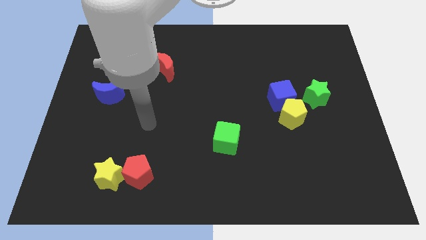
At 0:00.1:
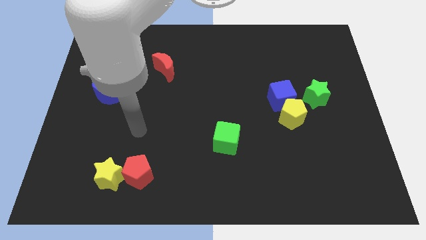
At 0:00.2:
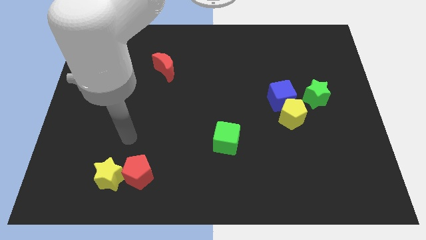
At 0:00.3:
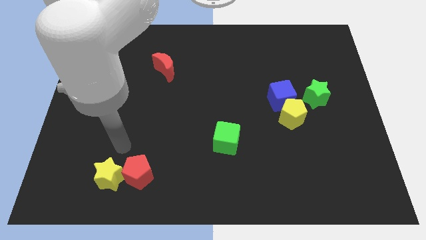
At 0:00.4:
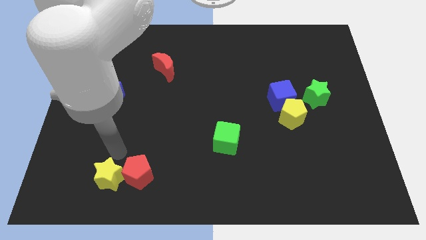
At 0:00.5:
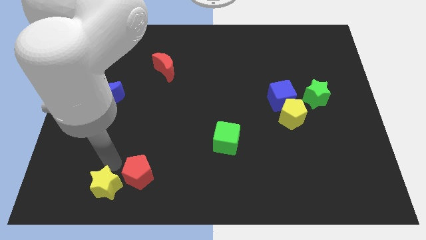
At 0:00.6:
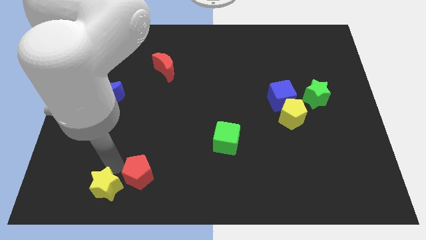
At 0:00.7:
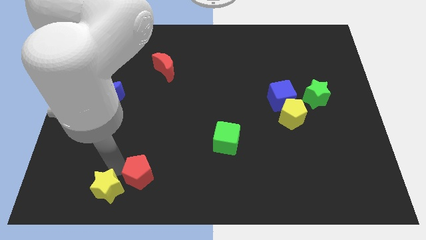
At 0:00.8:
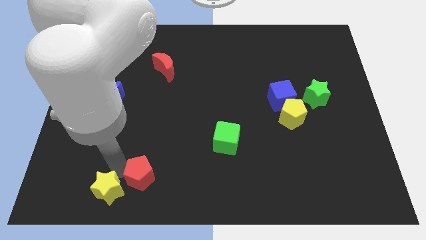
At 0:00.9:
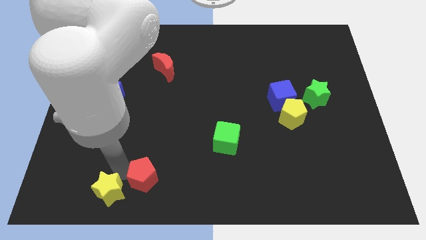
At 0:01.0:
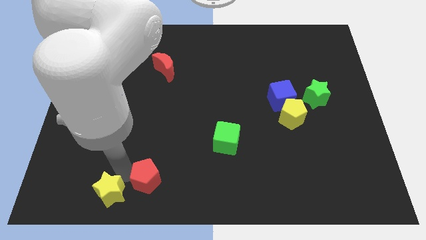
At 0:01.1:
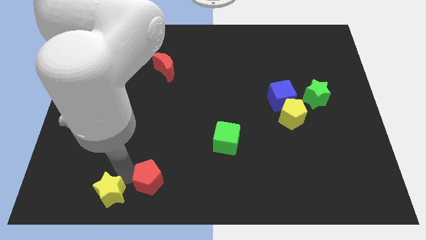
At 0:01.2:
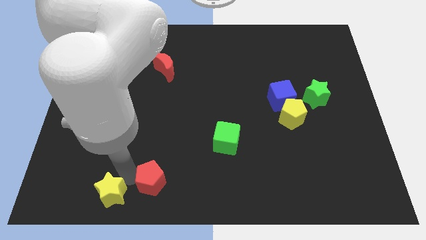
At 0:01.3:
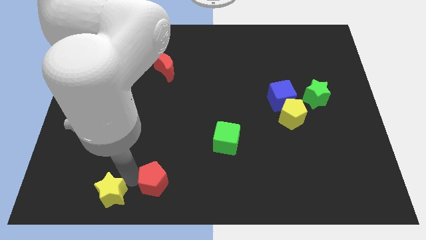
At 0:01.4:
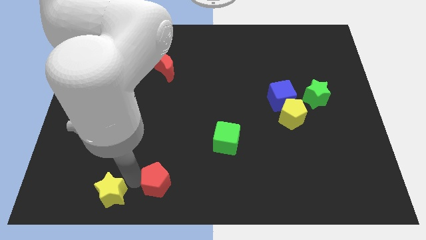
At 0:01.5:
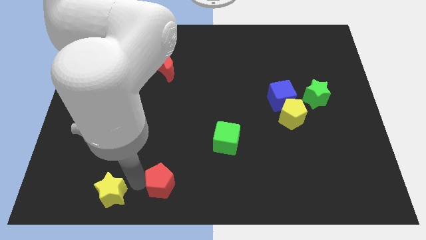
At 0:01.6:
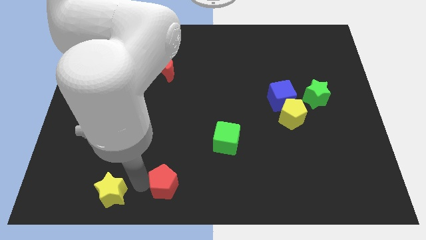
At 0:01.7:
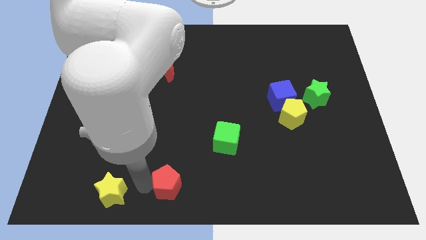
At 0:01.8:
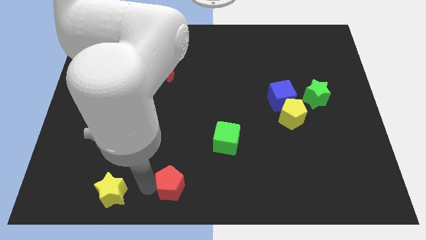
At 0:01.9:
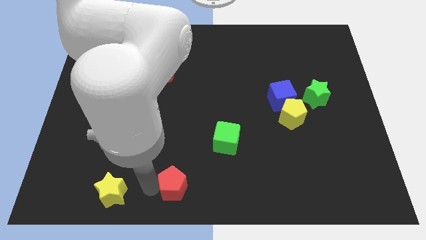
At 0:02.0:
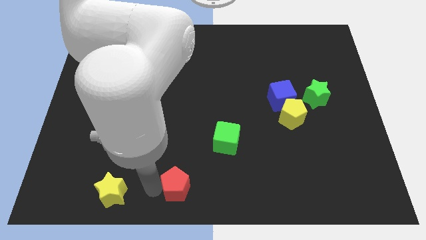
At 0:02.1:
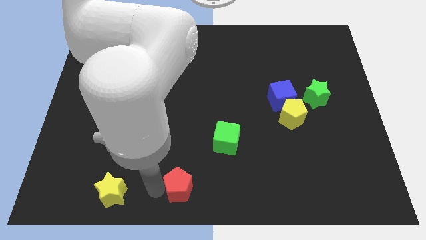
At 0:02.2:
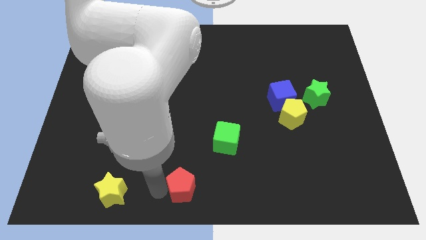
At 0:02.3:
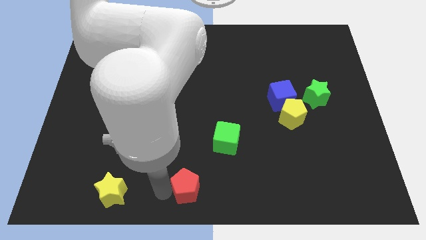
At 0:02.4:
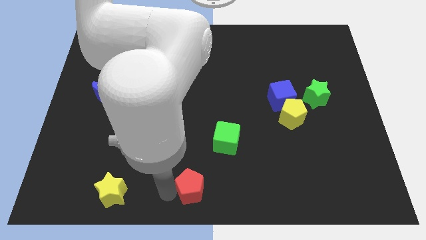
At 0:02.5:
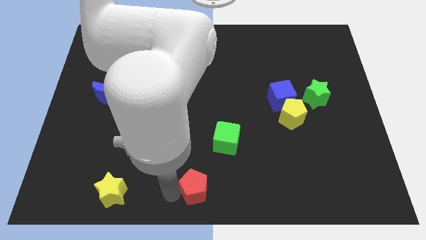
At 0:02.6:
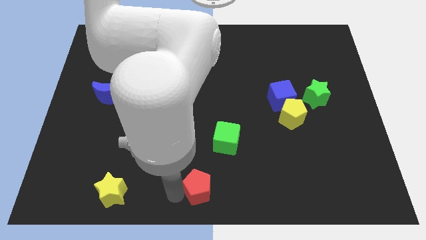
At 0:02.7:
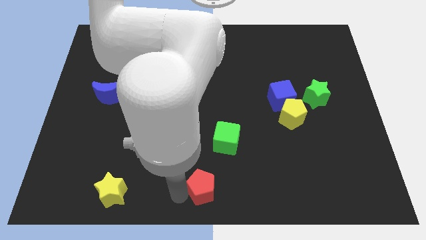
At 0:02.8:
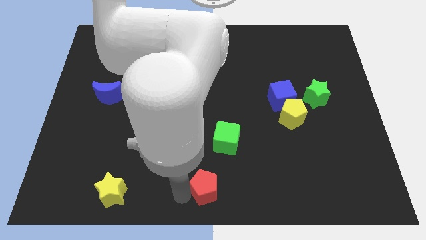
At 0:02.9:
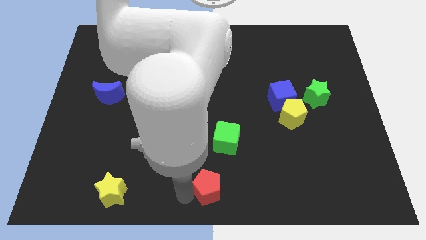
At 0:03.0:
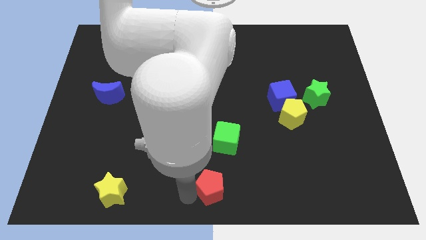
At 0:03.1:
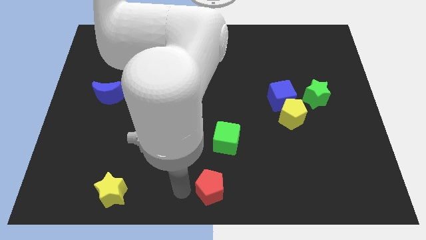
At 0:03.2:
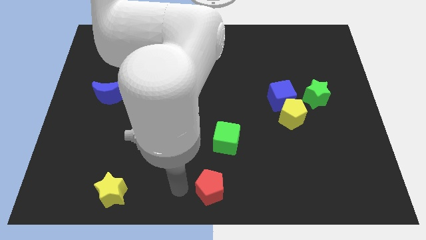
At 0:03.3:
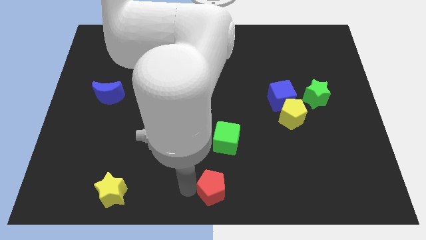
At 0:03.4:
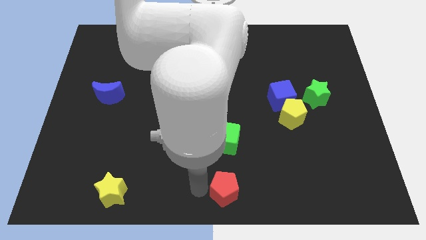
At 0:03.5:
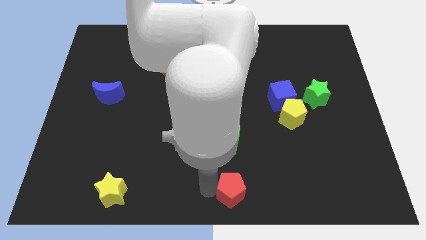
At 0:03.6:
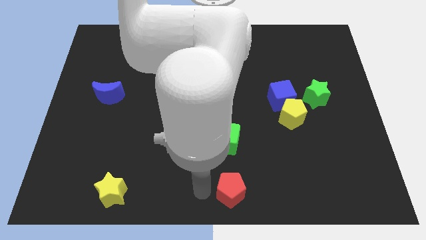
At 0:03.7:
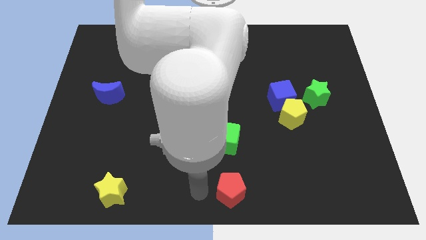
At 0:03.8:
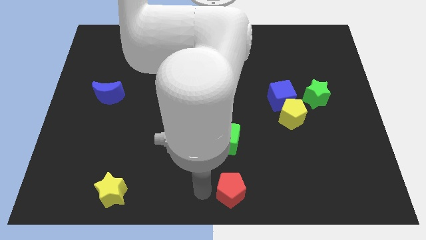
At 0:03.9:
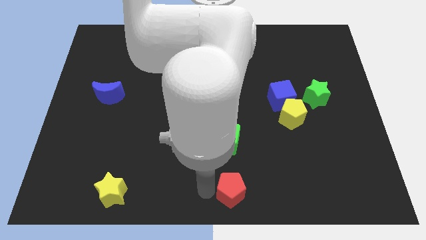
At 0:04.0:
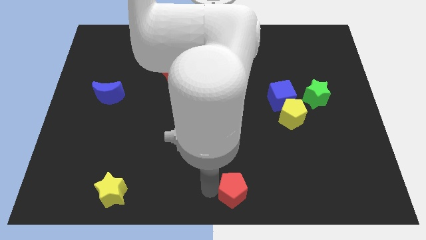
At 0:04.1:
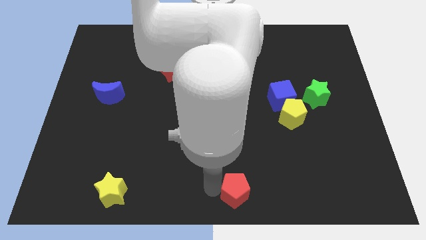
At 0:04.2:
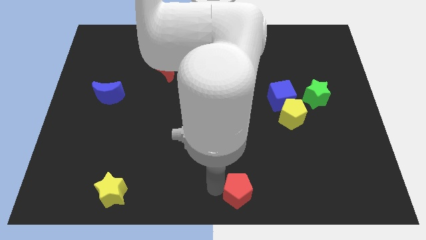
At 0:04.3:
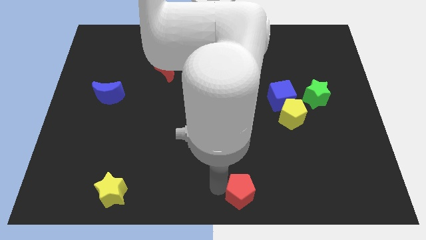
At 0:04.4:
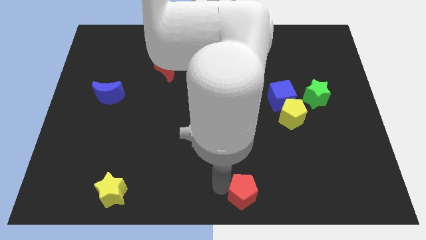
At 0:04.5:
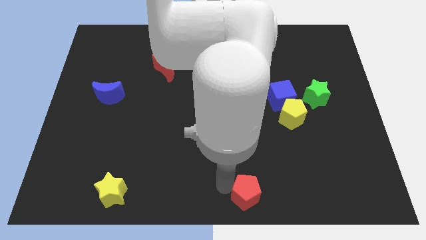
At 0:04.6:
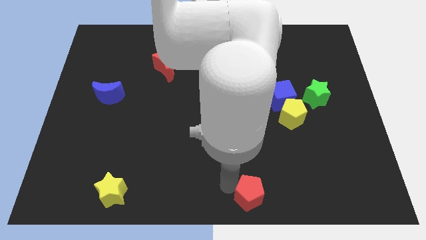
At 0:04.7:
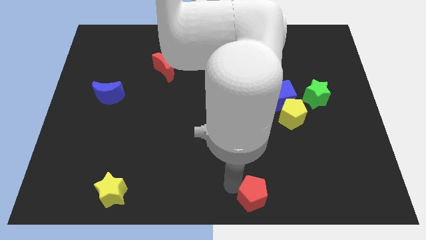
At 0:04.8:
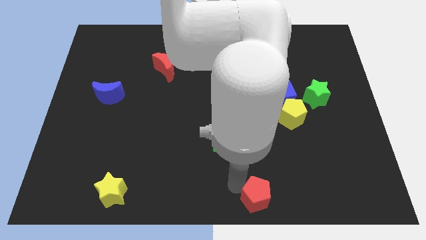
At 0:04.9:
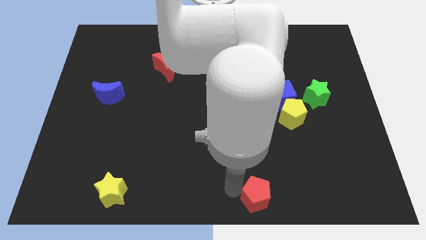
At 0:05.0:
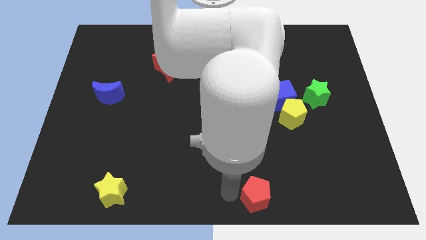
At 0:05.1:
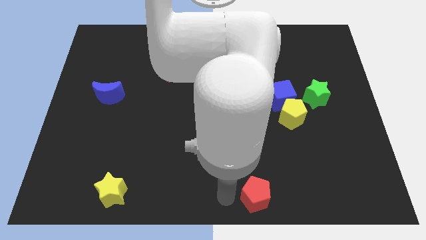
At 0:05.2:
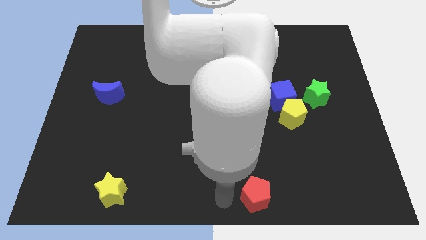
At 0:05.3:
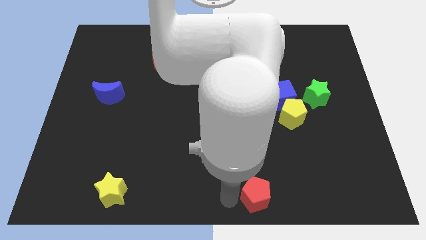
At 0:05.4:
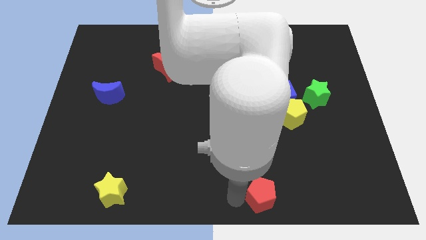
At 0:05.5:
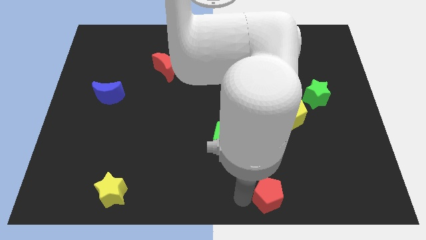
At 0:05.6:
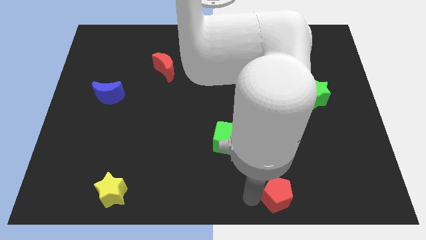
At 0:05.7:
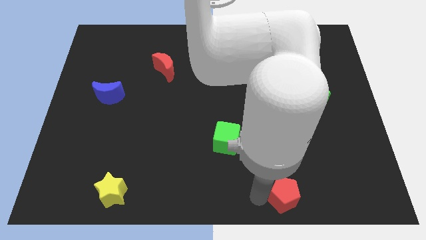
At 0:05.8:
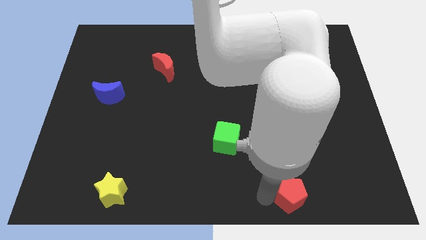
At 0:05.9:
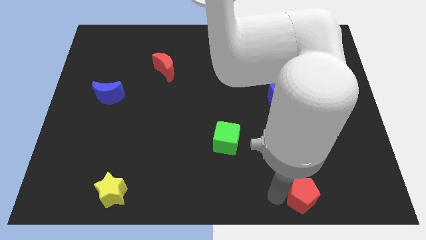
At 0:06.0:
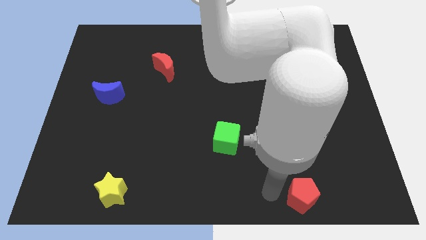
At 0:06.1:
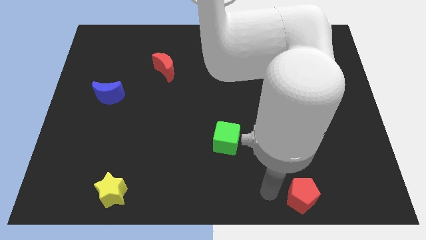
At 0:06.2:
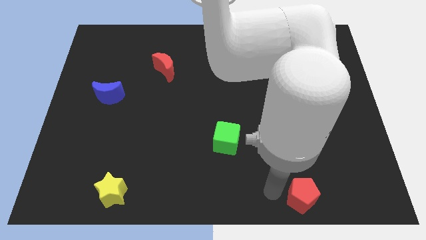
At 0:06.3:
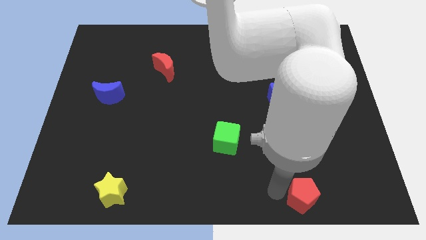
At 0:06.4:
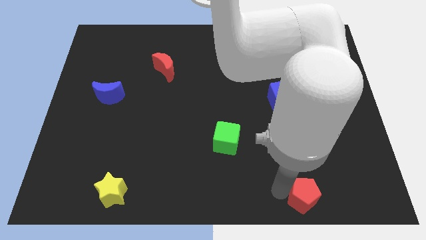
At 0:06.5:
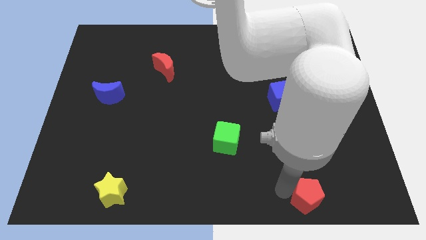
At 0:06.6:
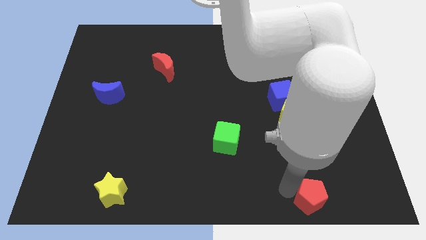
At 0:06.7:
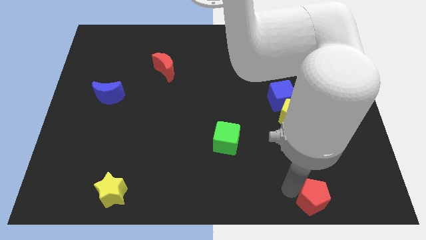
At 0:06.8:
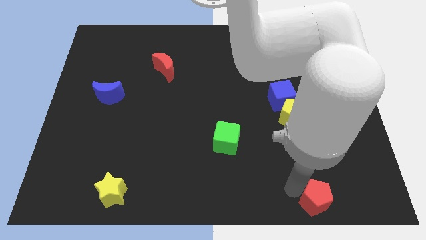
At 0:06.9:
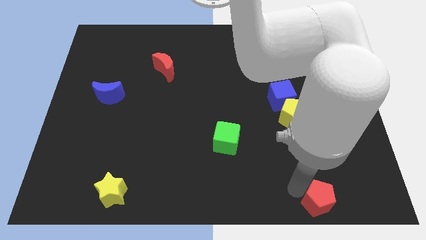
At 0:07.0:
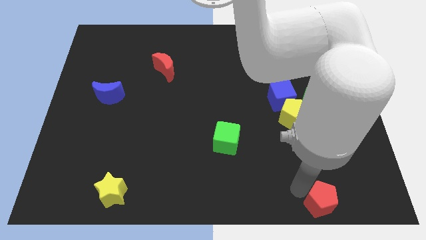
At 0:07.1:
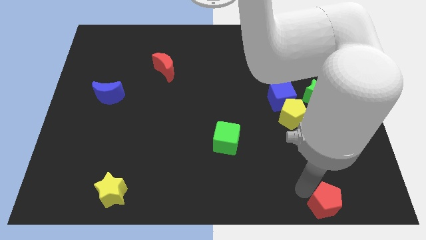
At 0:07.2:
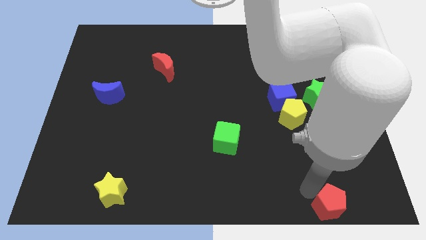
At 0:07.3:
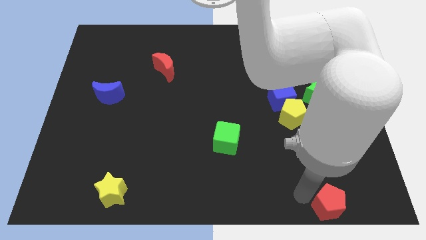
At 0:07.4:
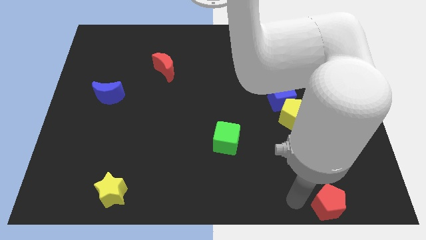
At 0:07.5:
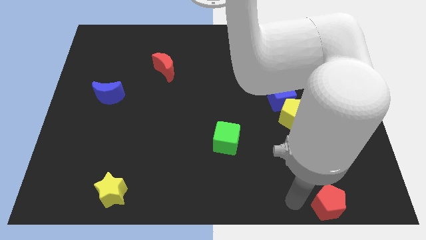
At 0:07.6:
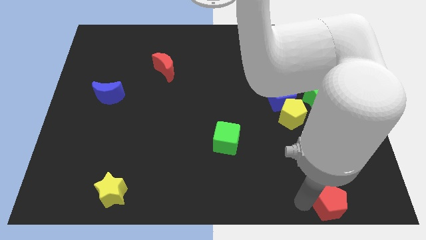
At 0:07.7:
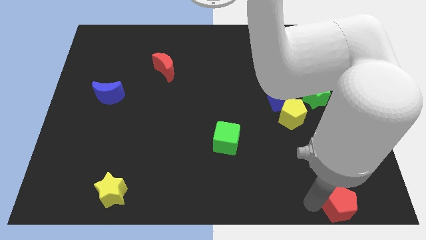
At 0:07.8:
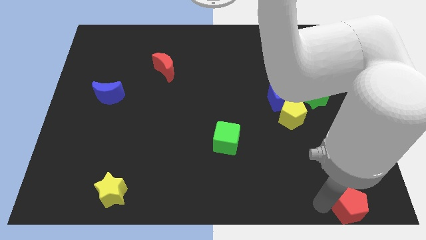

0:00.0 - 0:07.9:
push the red pentagon to the bottom right corner
